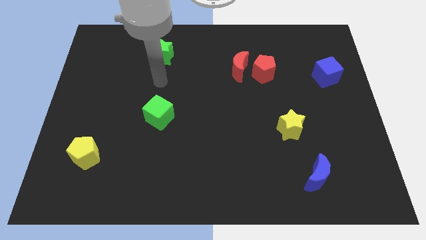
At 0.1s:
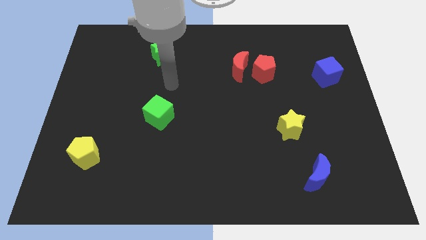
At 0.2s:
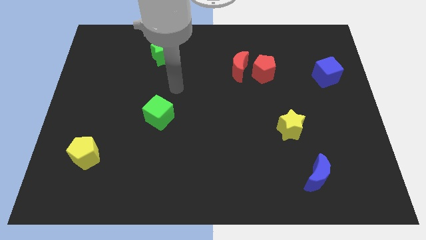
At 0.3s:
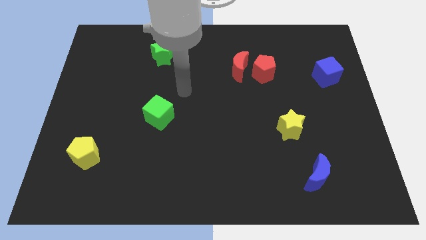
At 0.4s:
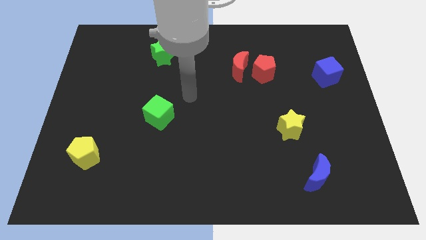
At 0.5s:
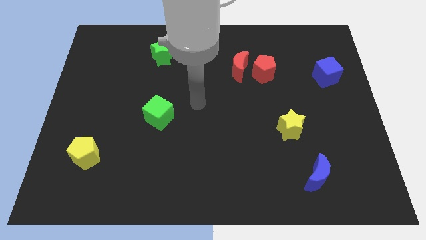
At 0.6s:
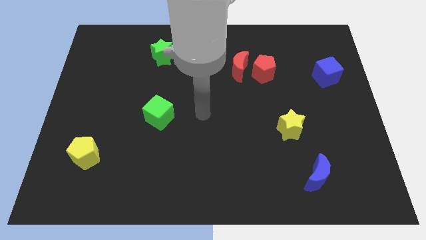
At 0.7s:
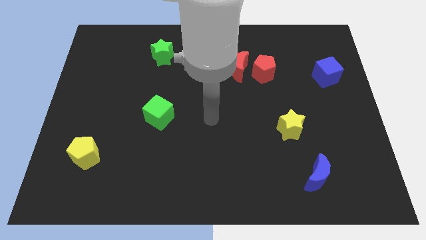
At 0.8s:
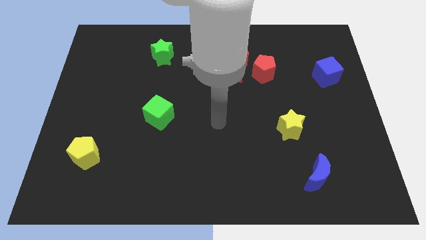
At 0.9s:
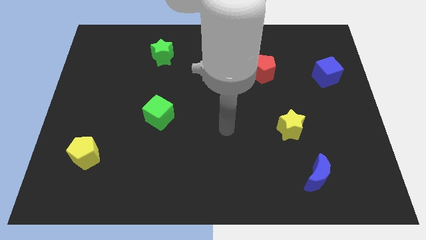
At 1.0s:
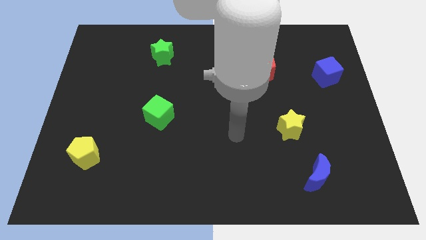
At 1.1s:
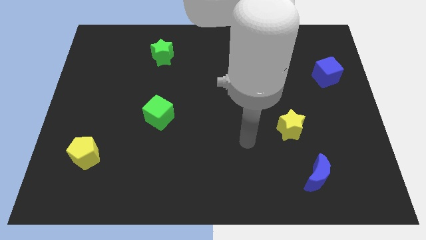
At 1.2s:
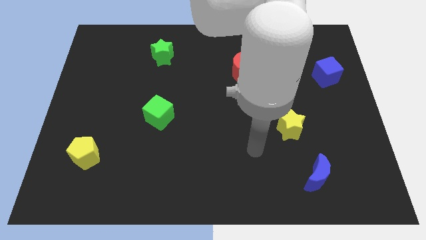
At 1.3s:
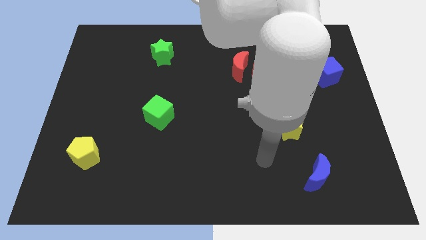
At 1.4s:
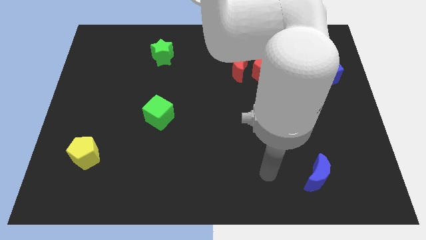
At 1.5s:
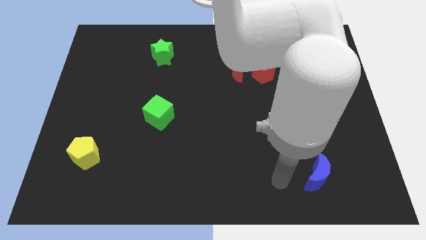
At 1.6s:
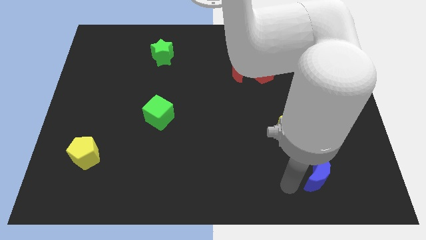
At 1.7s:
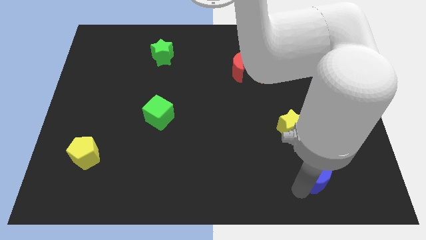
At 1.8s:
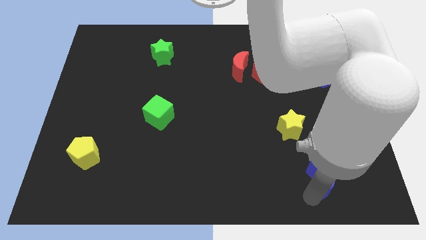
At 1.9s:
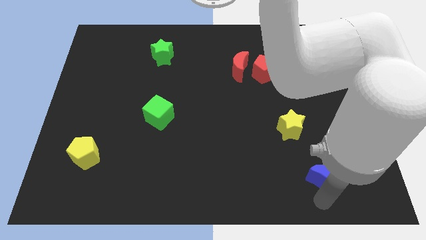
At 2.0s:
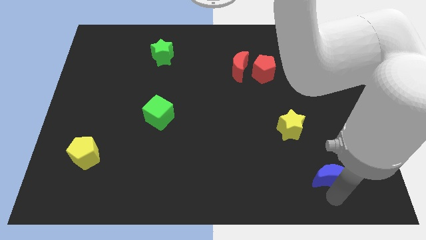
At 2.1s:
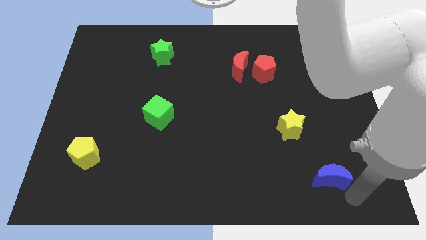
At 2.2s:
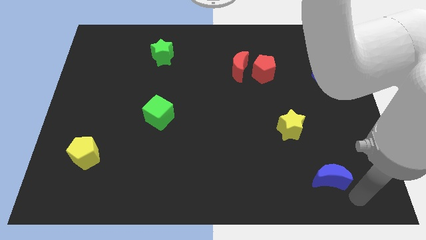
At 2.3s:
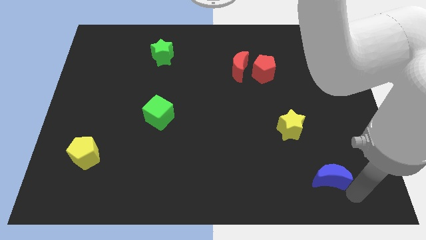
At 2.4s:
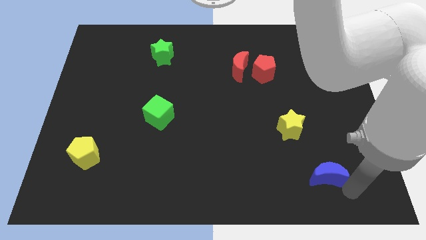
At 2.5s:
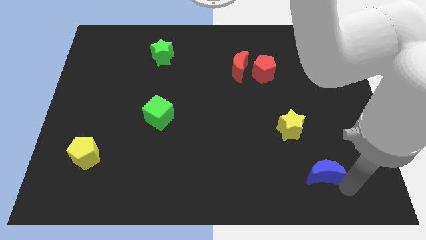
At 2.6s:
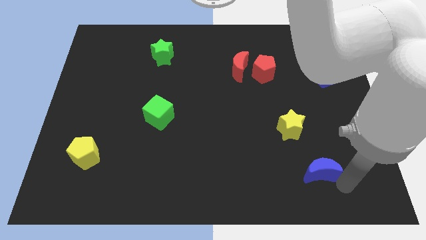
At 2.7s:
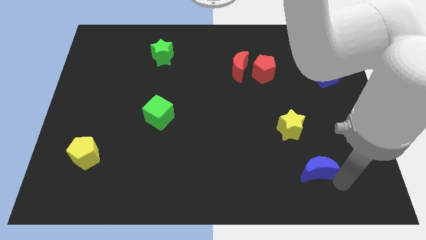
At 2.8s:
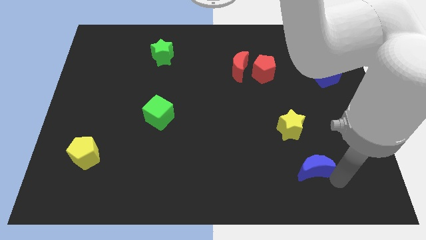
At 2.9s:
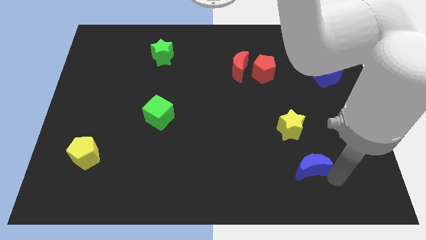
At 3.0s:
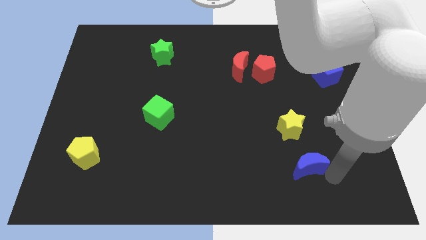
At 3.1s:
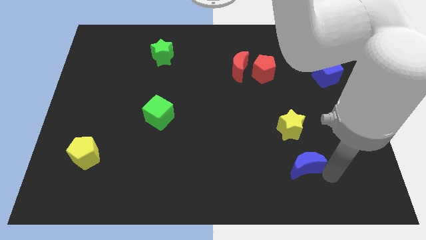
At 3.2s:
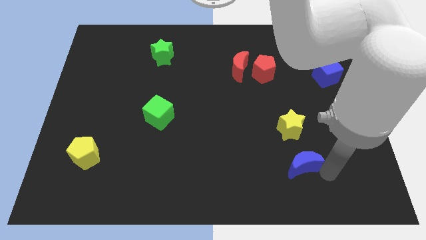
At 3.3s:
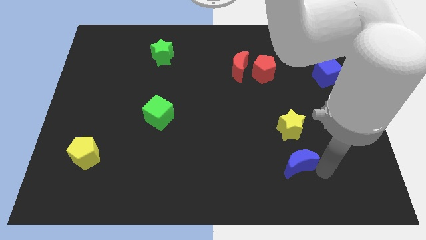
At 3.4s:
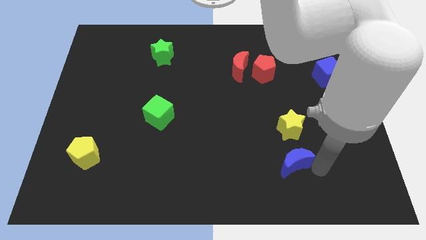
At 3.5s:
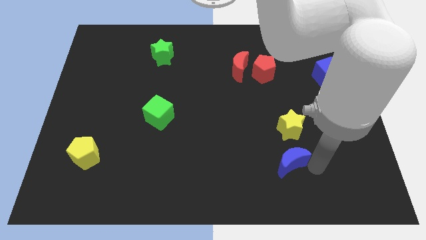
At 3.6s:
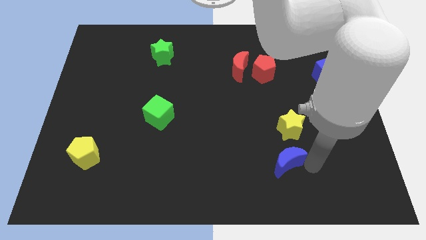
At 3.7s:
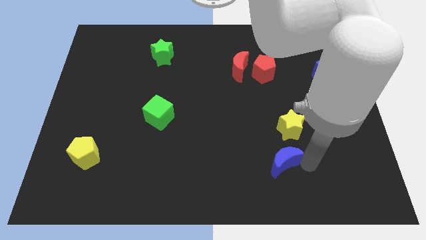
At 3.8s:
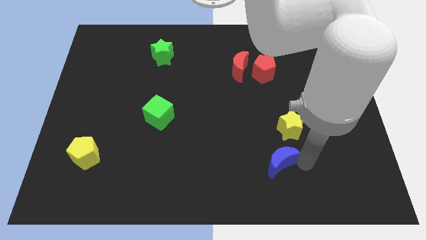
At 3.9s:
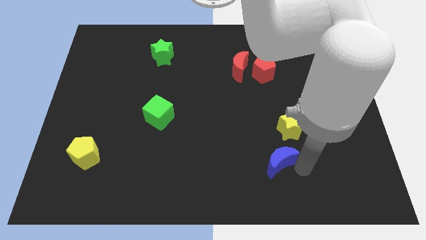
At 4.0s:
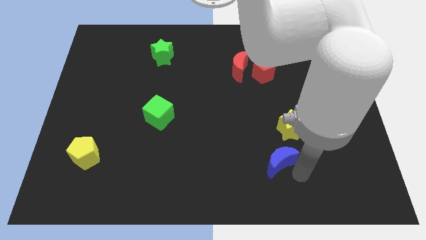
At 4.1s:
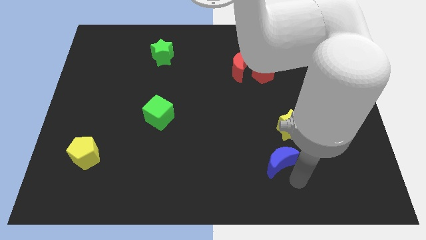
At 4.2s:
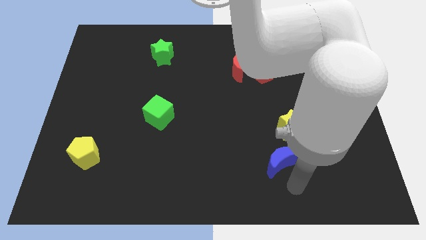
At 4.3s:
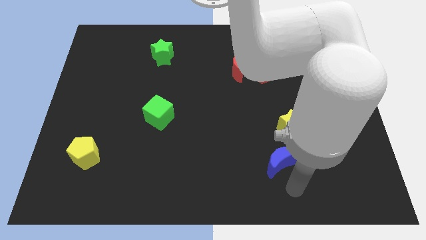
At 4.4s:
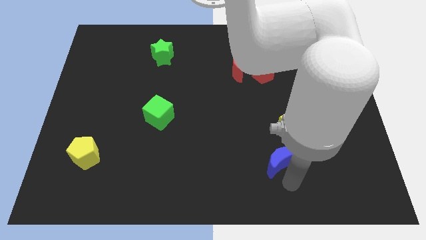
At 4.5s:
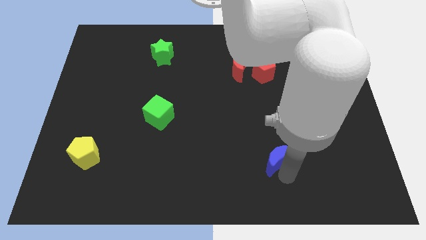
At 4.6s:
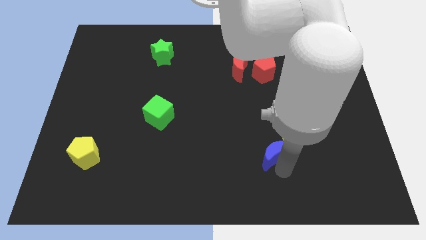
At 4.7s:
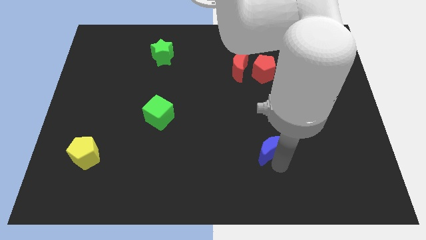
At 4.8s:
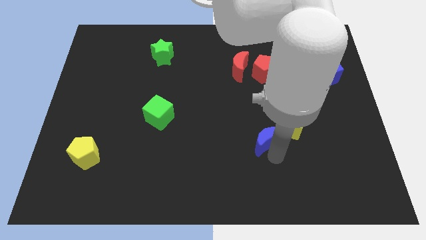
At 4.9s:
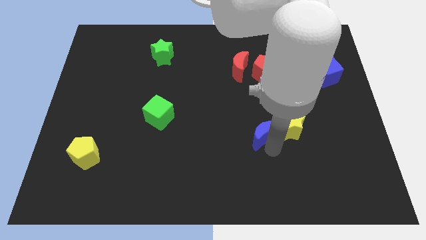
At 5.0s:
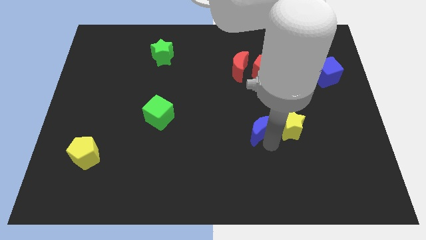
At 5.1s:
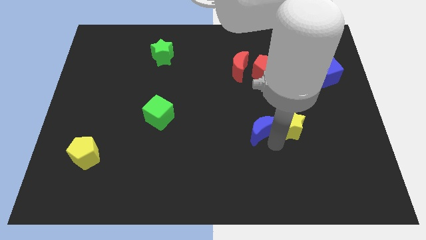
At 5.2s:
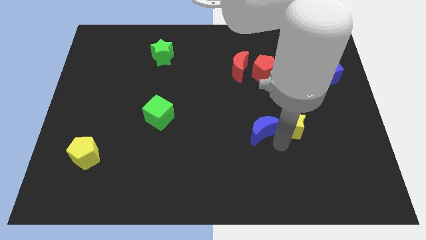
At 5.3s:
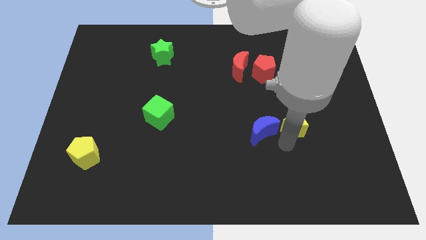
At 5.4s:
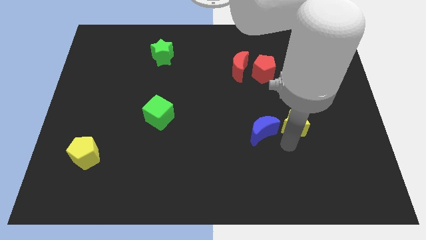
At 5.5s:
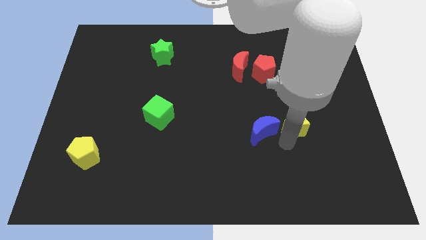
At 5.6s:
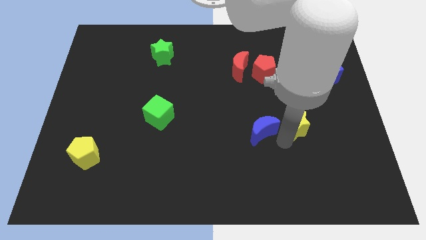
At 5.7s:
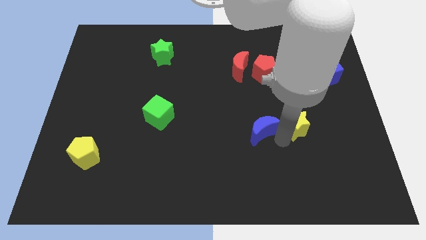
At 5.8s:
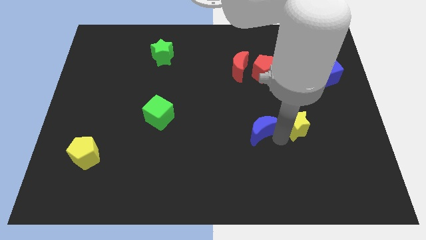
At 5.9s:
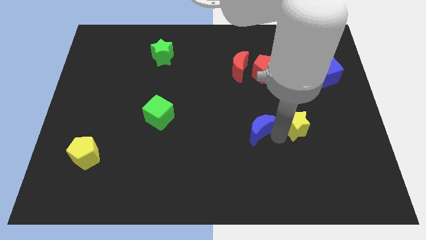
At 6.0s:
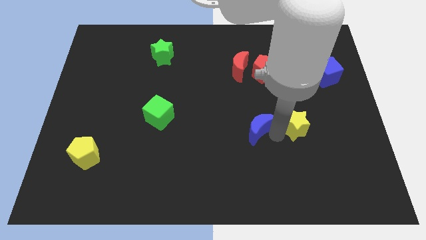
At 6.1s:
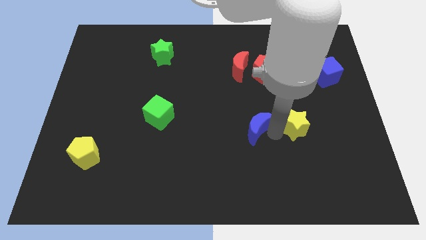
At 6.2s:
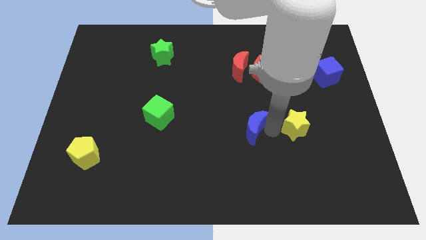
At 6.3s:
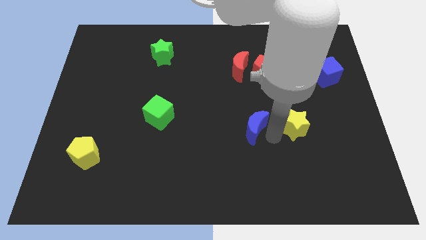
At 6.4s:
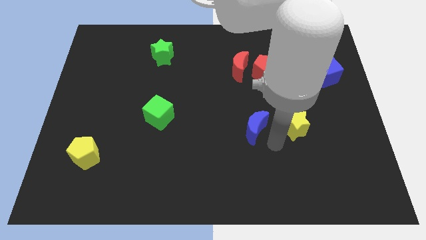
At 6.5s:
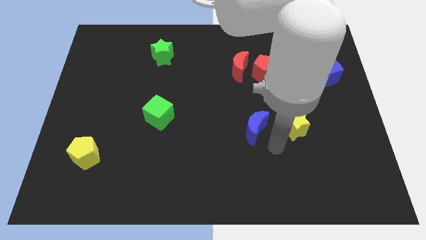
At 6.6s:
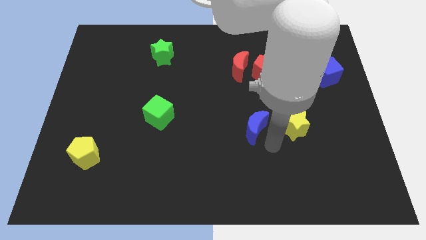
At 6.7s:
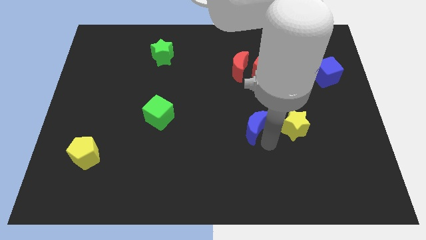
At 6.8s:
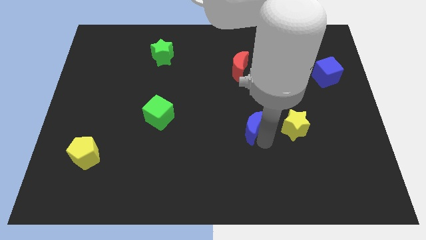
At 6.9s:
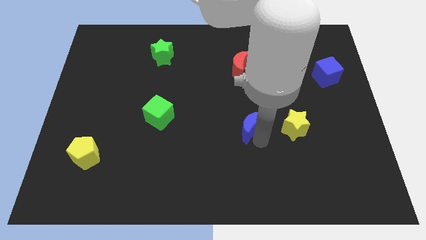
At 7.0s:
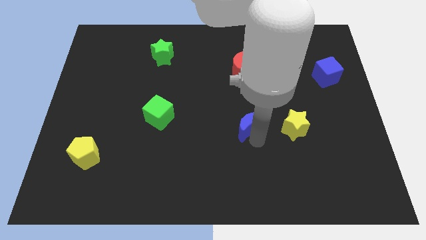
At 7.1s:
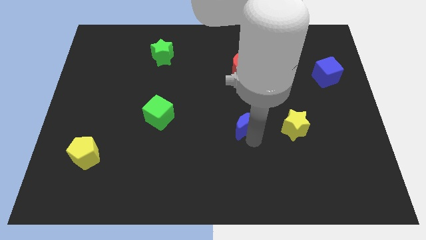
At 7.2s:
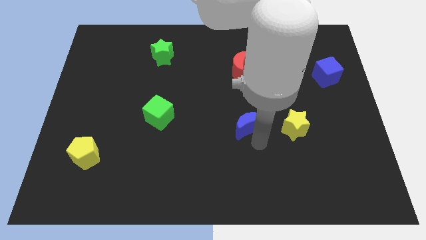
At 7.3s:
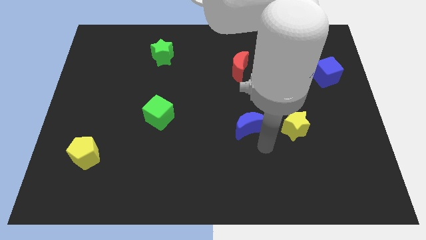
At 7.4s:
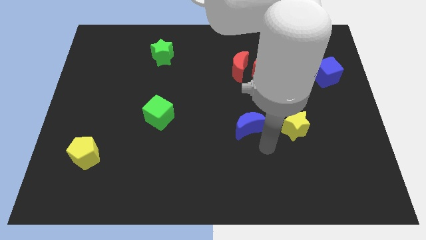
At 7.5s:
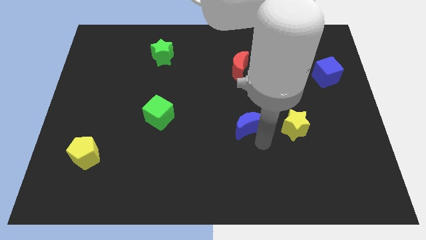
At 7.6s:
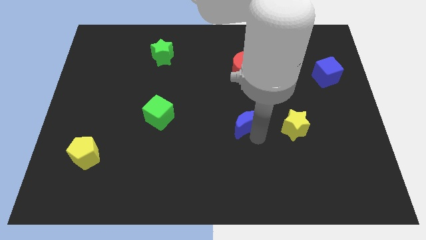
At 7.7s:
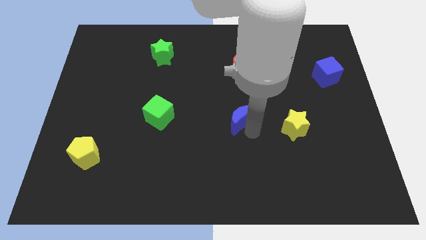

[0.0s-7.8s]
move the blue moon upwards and then left
